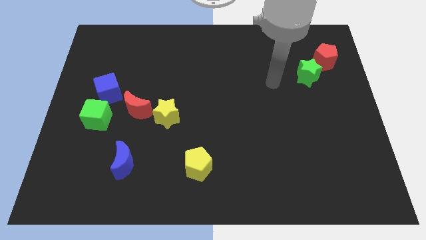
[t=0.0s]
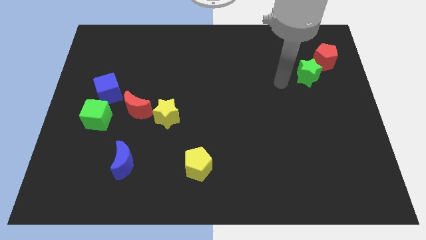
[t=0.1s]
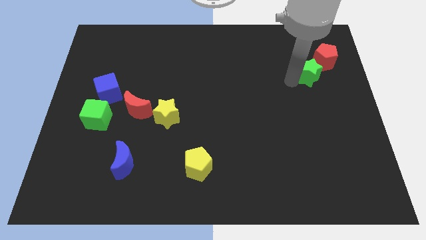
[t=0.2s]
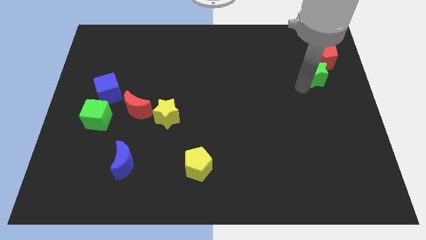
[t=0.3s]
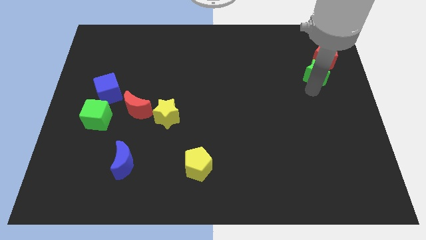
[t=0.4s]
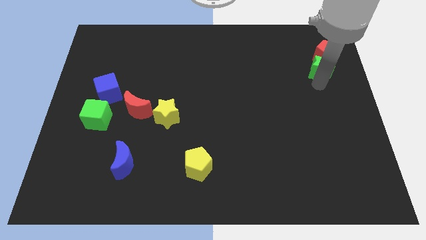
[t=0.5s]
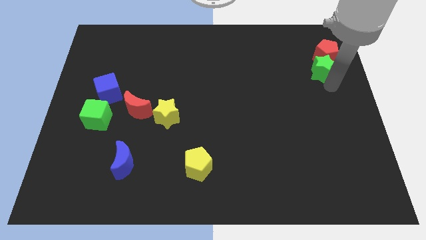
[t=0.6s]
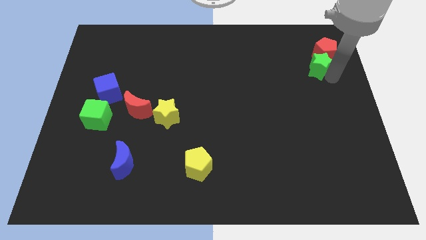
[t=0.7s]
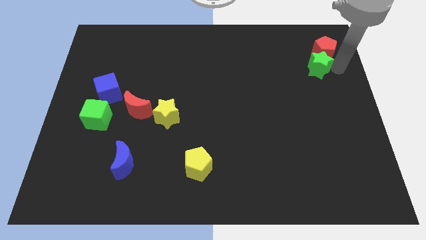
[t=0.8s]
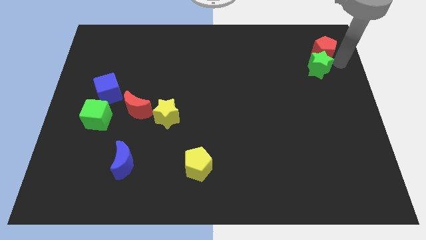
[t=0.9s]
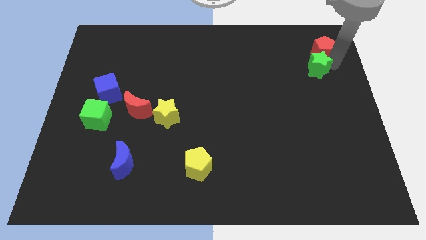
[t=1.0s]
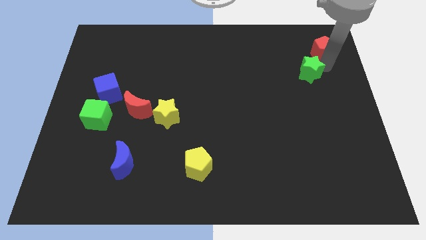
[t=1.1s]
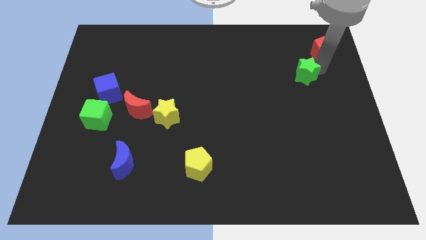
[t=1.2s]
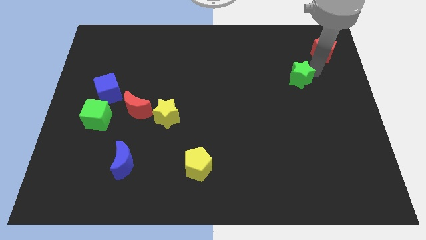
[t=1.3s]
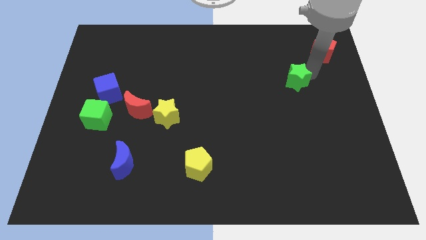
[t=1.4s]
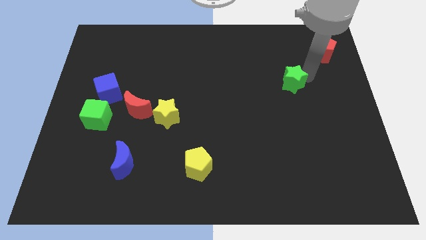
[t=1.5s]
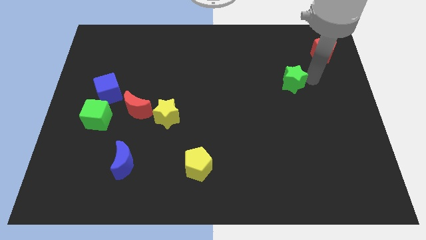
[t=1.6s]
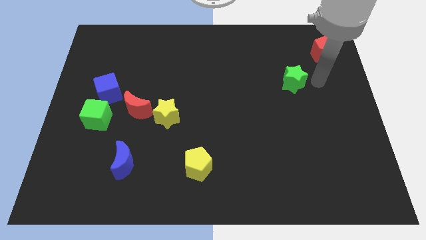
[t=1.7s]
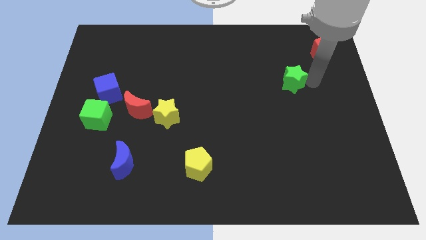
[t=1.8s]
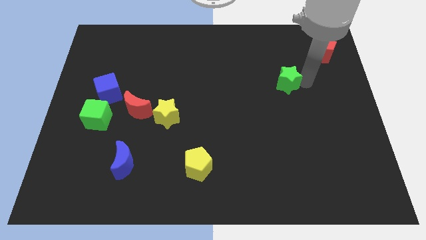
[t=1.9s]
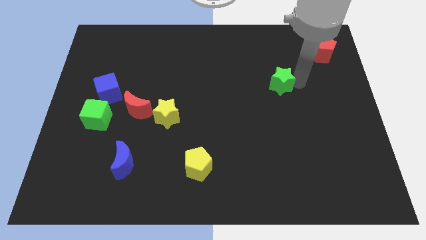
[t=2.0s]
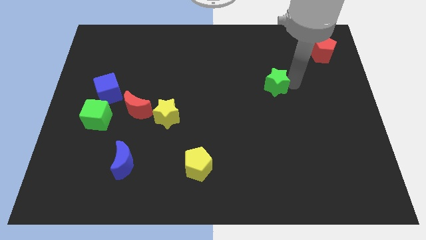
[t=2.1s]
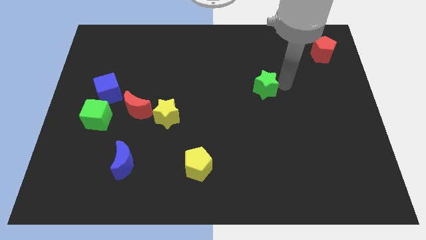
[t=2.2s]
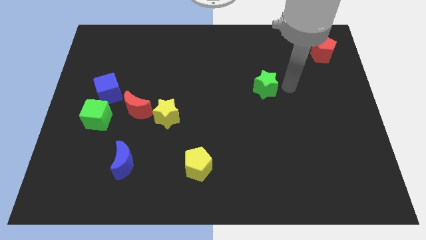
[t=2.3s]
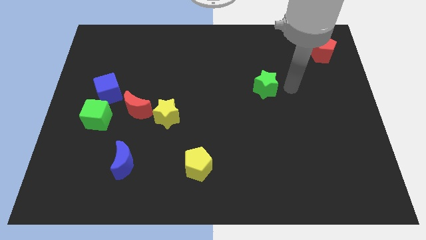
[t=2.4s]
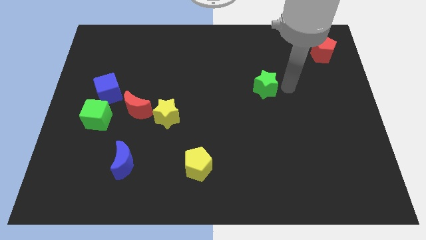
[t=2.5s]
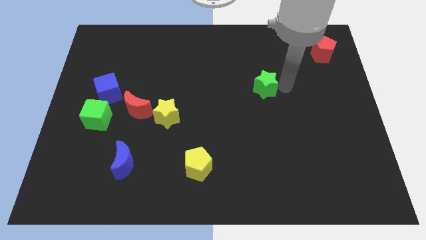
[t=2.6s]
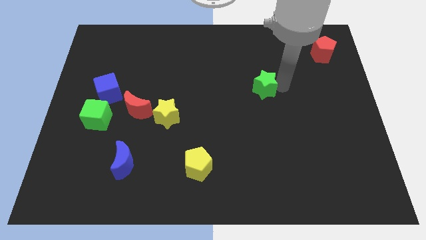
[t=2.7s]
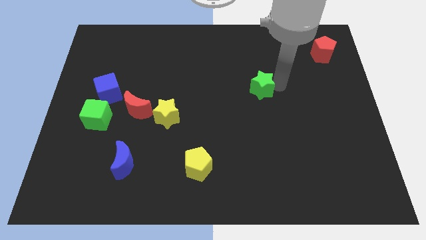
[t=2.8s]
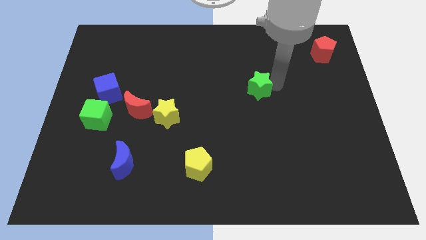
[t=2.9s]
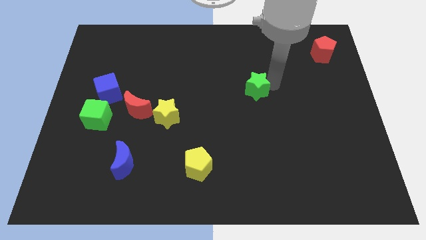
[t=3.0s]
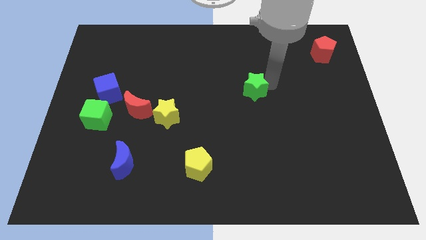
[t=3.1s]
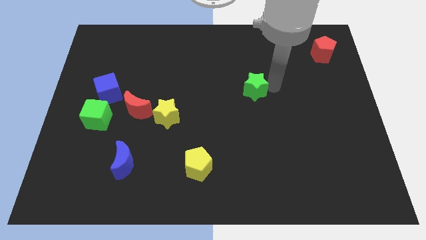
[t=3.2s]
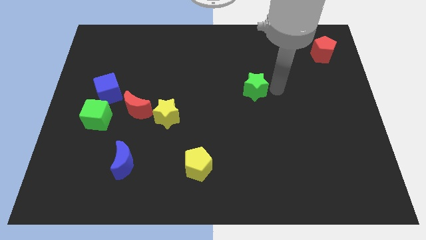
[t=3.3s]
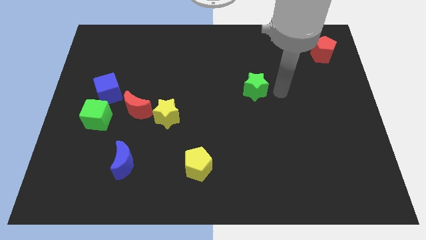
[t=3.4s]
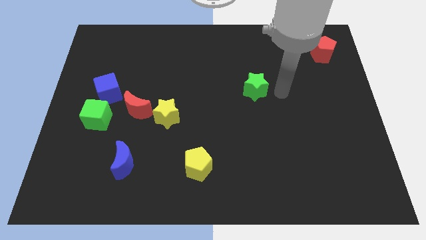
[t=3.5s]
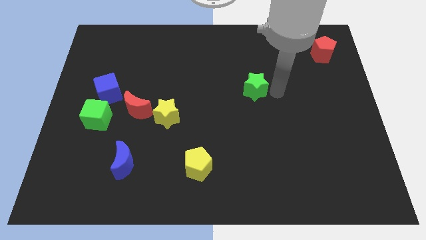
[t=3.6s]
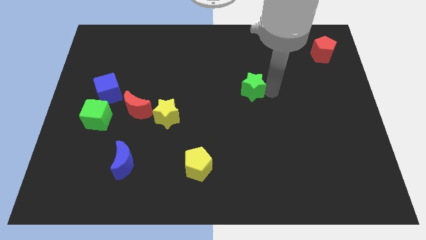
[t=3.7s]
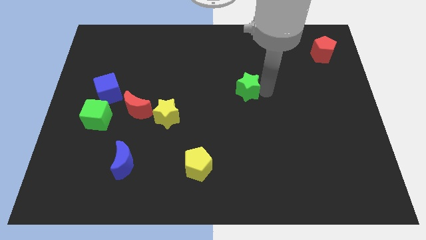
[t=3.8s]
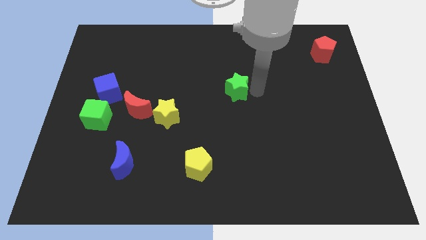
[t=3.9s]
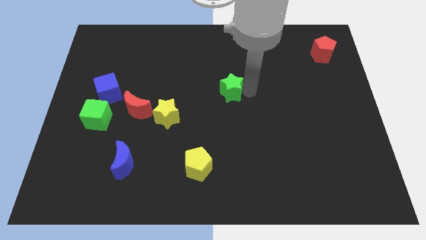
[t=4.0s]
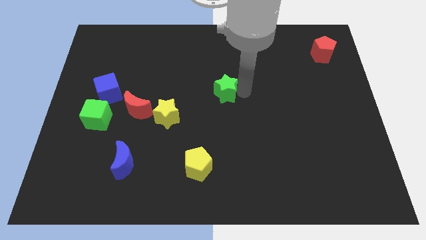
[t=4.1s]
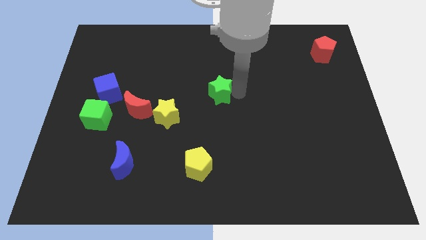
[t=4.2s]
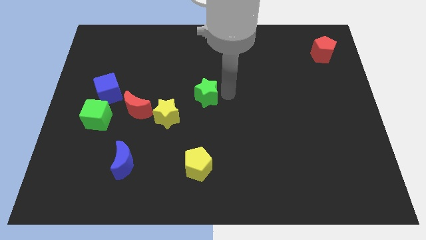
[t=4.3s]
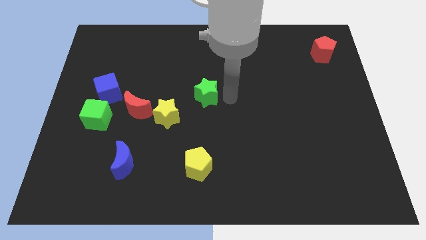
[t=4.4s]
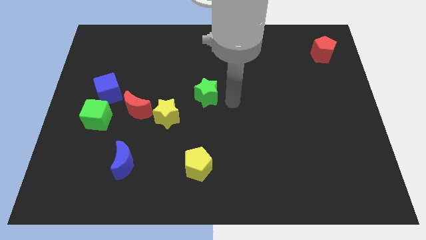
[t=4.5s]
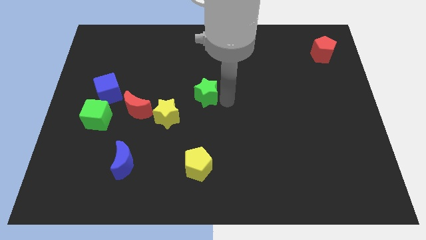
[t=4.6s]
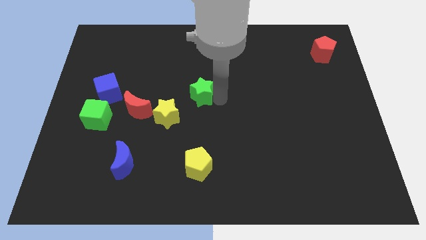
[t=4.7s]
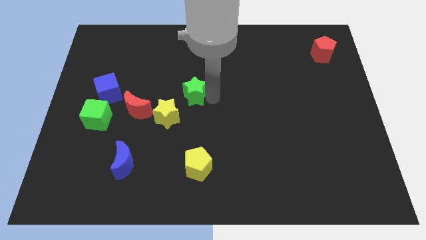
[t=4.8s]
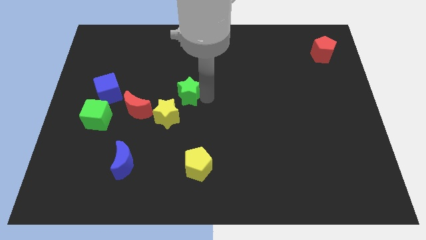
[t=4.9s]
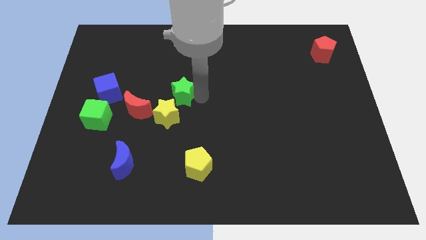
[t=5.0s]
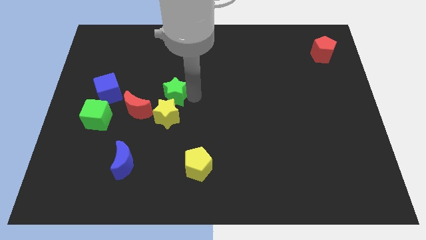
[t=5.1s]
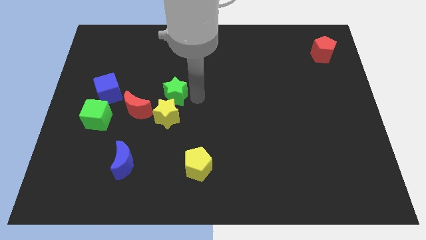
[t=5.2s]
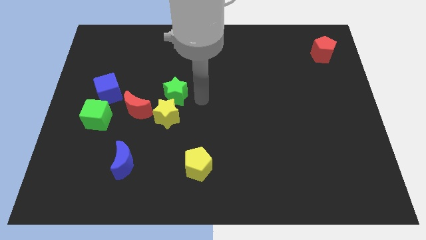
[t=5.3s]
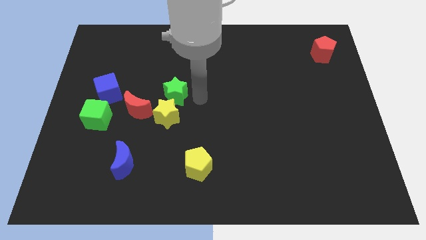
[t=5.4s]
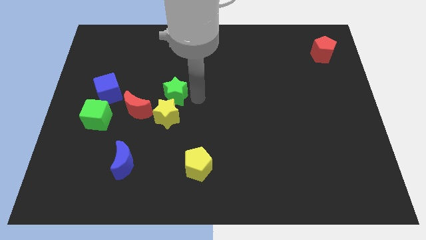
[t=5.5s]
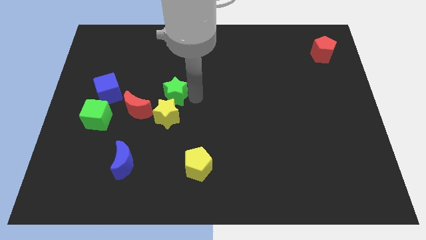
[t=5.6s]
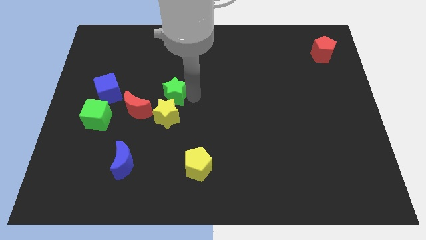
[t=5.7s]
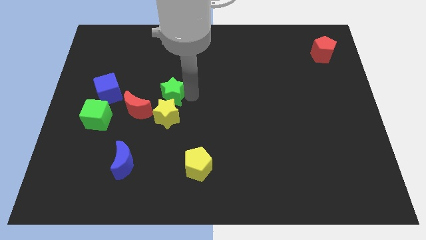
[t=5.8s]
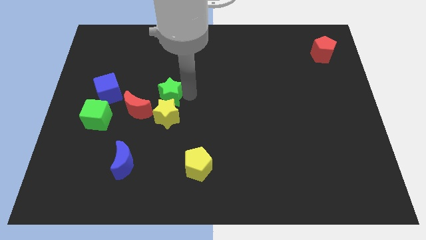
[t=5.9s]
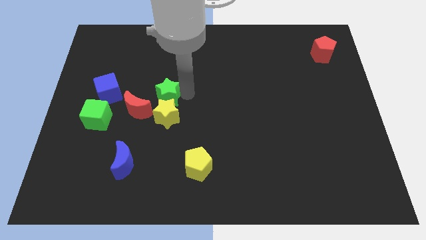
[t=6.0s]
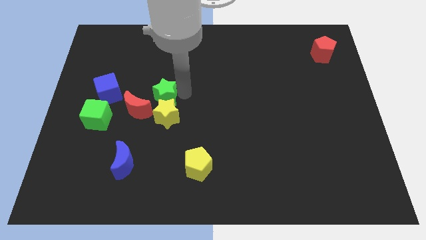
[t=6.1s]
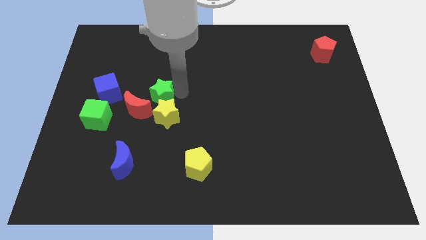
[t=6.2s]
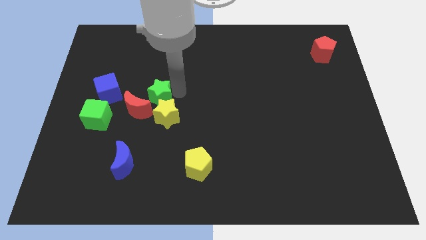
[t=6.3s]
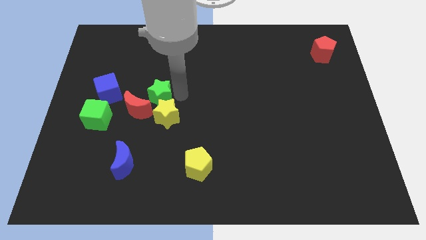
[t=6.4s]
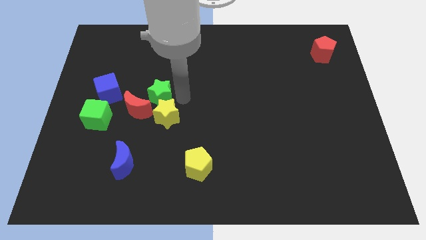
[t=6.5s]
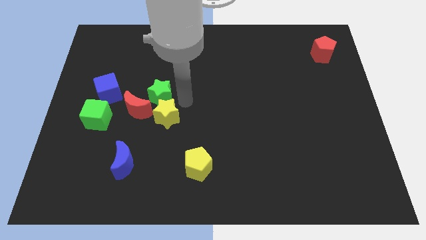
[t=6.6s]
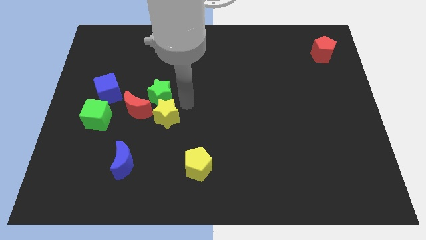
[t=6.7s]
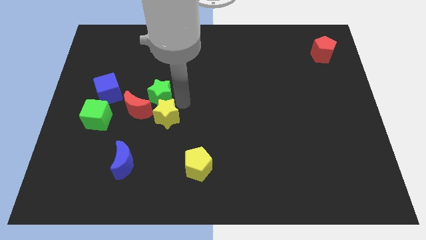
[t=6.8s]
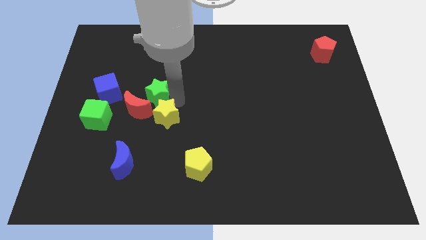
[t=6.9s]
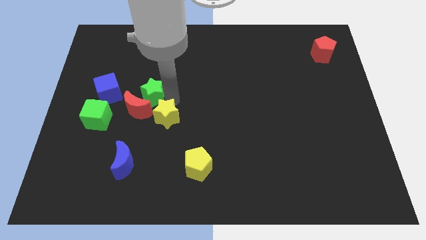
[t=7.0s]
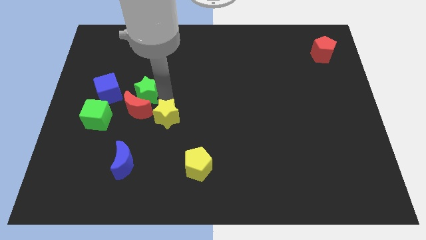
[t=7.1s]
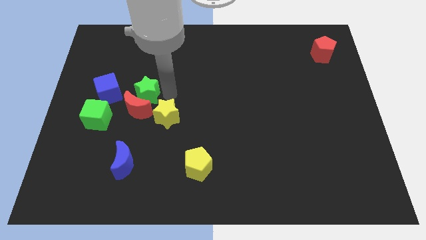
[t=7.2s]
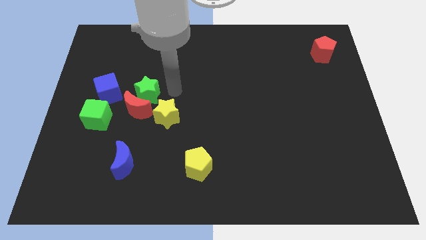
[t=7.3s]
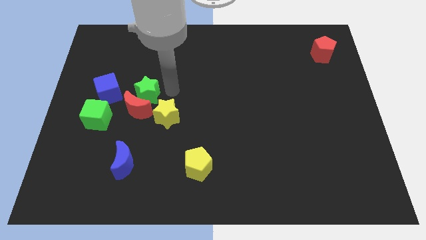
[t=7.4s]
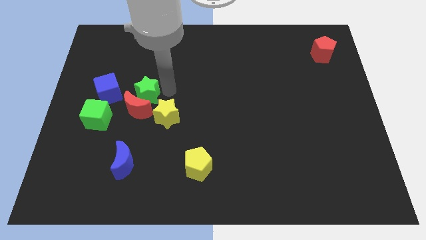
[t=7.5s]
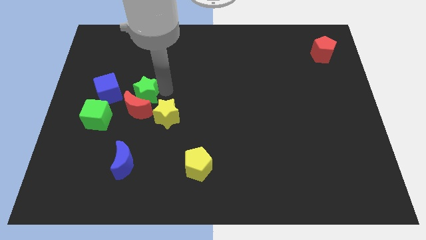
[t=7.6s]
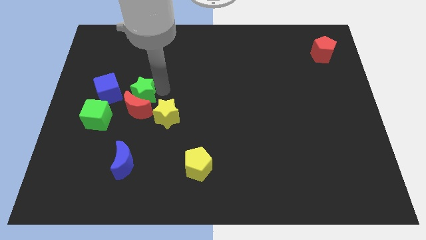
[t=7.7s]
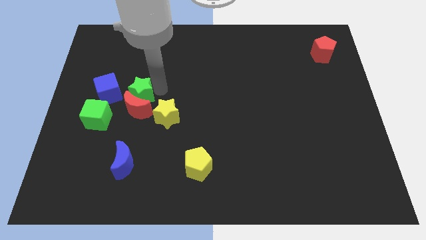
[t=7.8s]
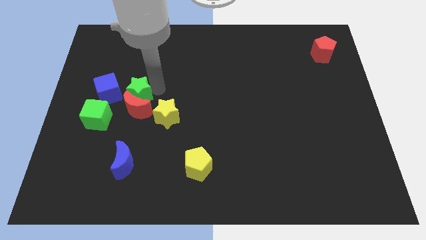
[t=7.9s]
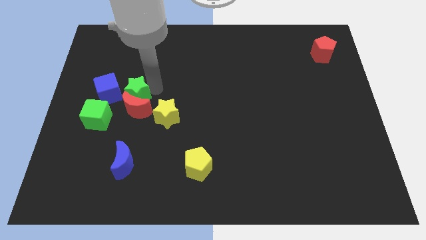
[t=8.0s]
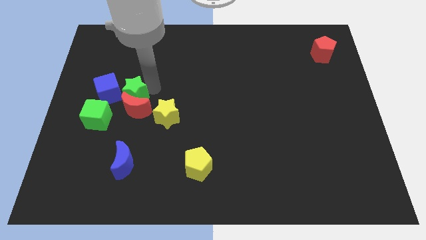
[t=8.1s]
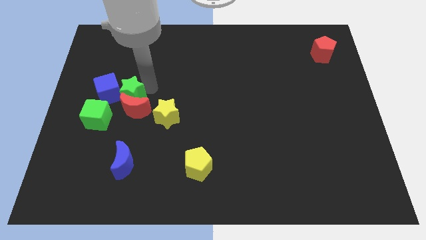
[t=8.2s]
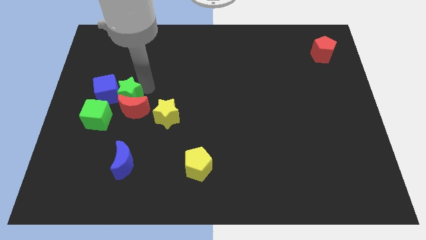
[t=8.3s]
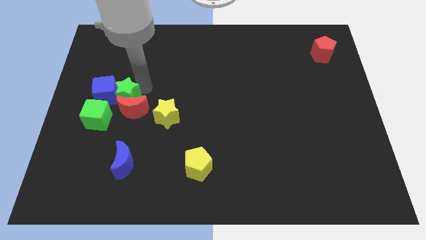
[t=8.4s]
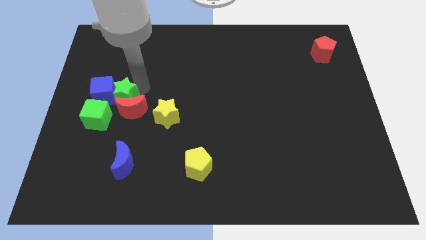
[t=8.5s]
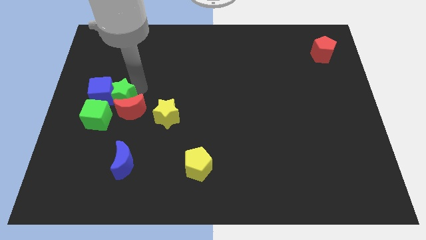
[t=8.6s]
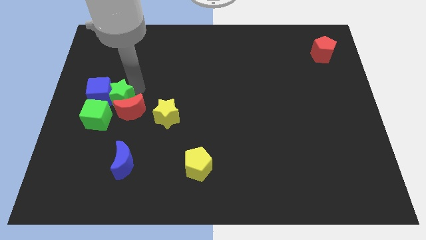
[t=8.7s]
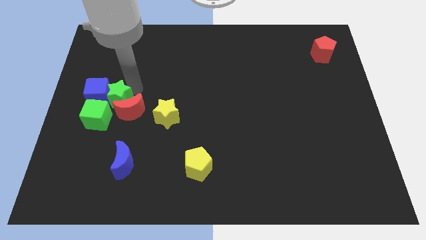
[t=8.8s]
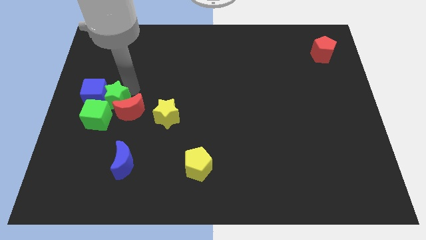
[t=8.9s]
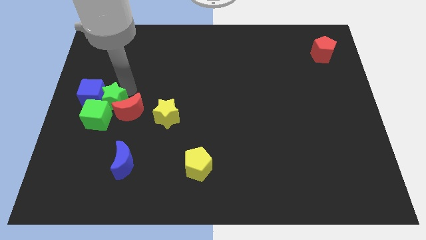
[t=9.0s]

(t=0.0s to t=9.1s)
push the green star close to the green cube
